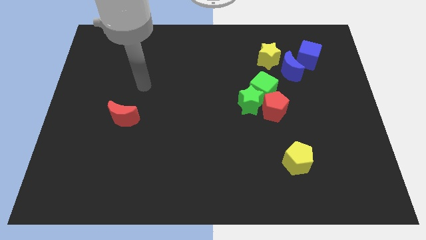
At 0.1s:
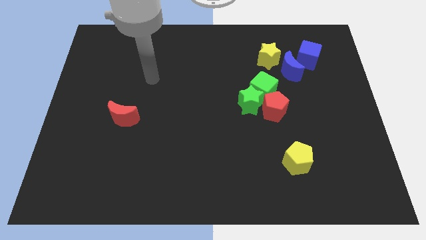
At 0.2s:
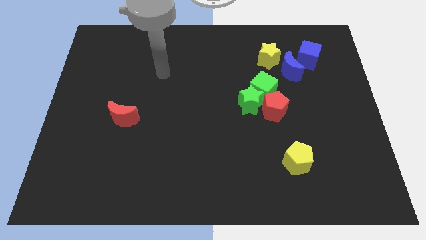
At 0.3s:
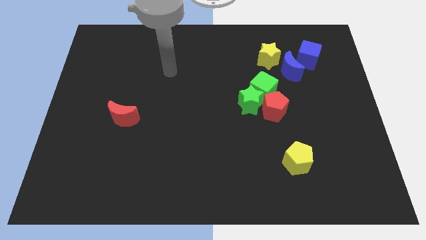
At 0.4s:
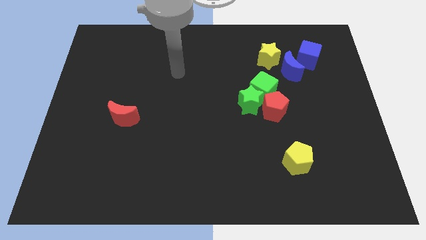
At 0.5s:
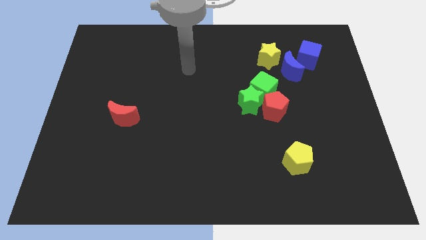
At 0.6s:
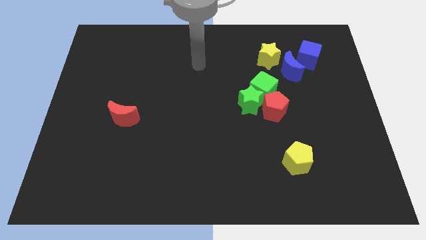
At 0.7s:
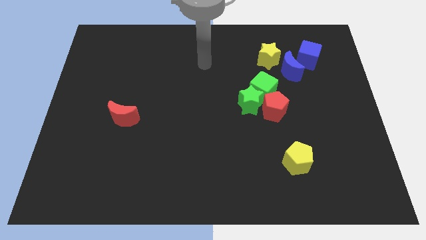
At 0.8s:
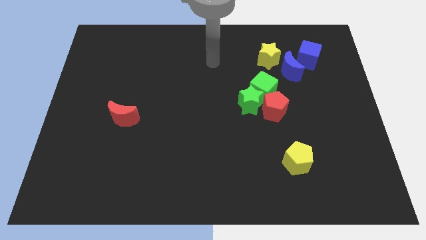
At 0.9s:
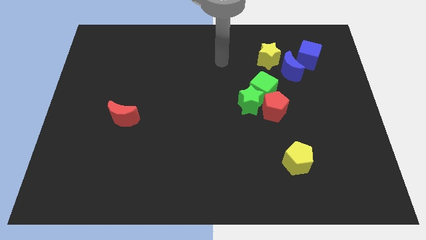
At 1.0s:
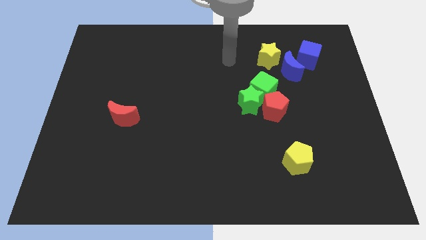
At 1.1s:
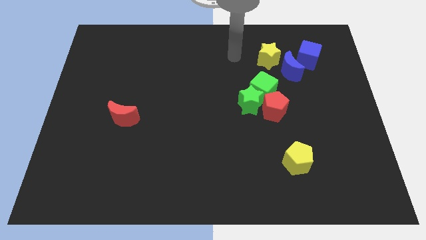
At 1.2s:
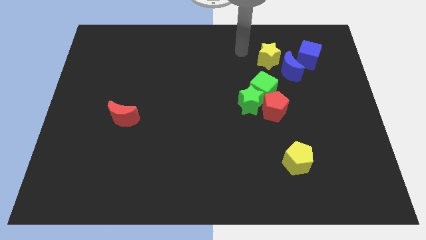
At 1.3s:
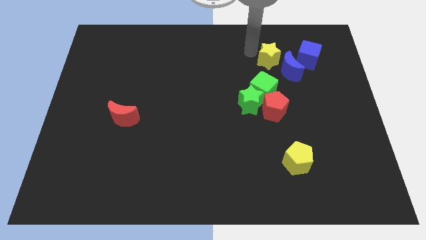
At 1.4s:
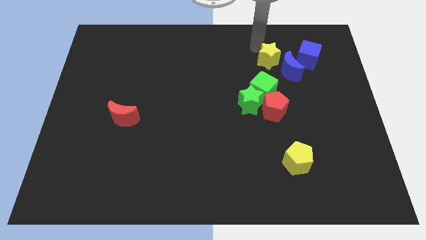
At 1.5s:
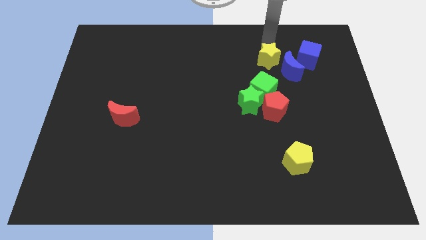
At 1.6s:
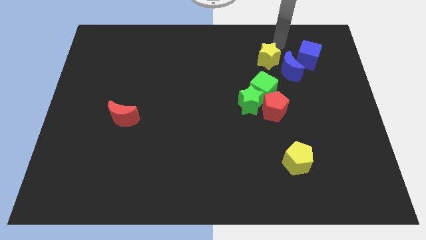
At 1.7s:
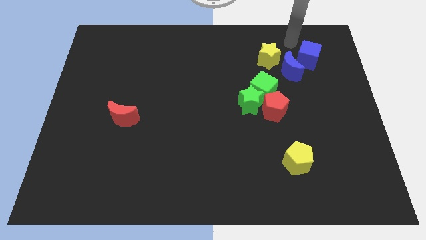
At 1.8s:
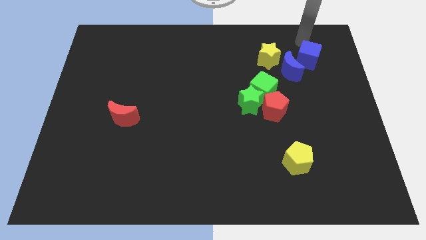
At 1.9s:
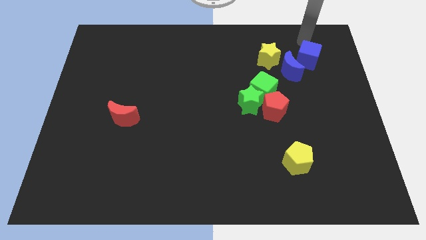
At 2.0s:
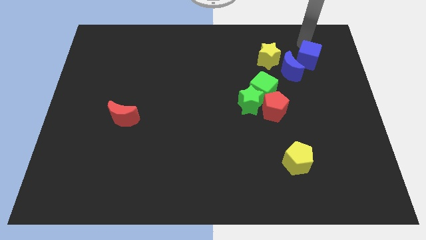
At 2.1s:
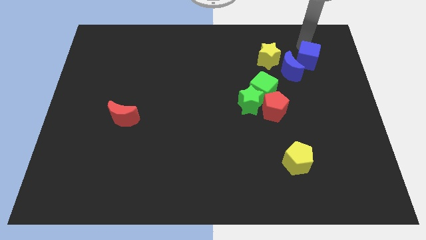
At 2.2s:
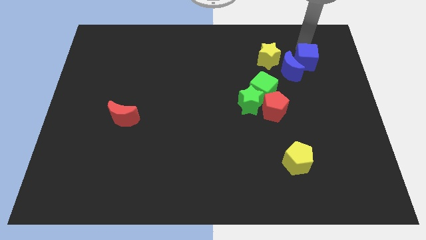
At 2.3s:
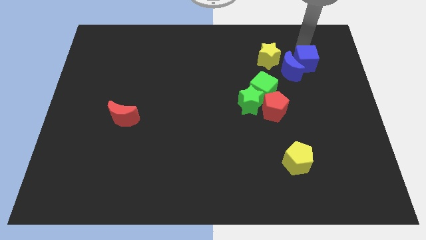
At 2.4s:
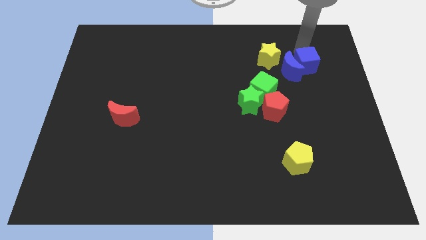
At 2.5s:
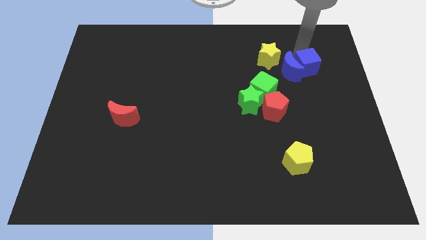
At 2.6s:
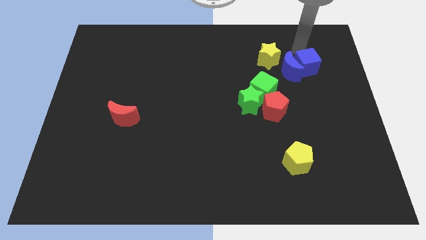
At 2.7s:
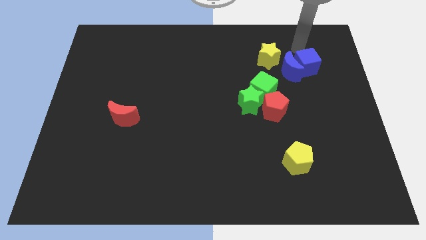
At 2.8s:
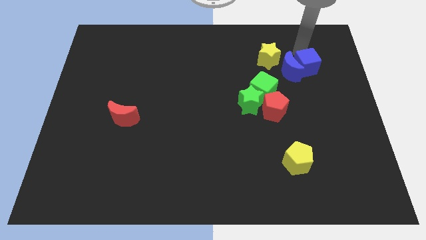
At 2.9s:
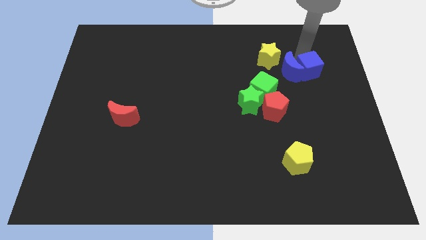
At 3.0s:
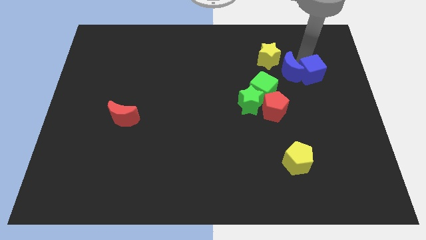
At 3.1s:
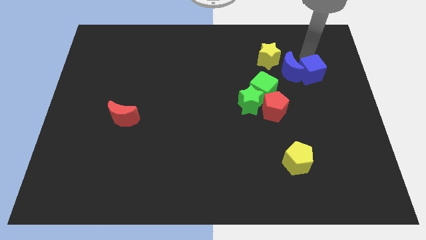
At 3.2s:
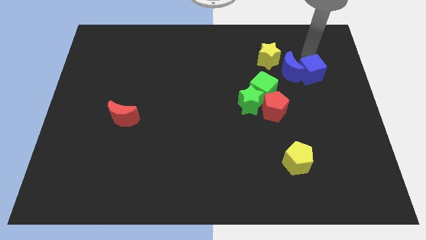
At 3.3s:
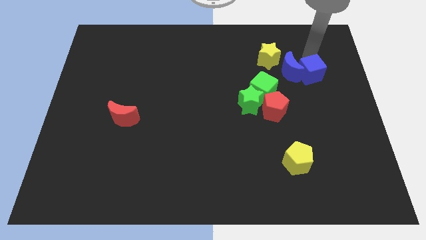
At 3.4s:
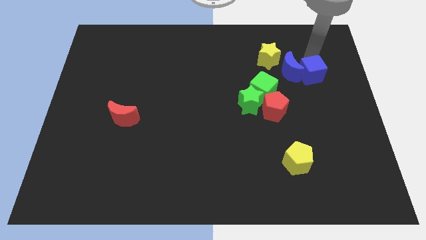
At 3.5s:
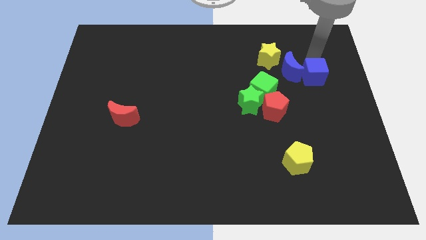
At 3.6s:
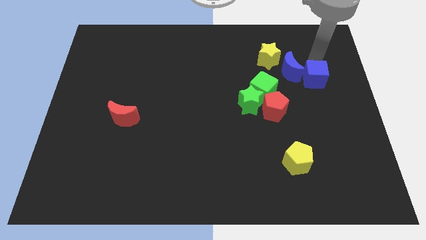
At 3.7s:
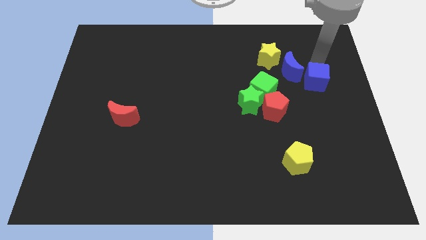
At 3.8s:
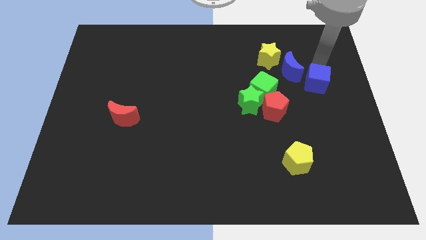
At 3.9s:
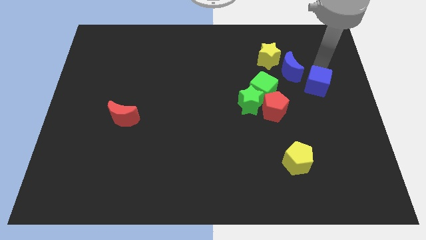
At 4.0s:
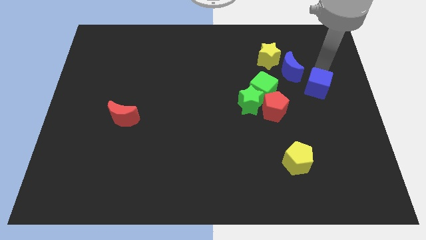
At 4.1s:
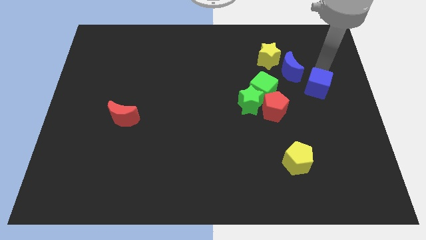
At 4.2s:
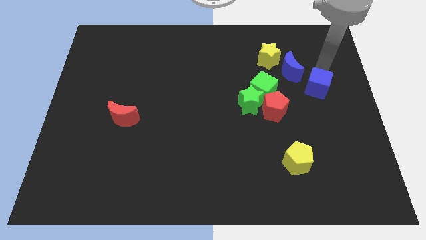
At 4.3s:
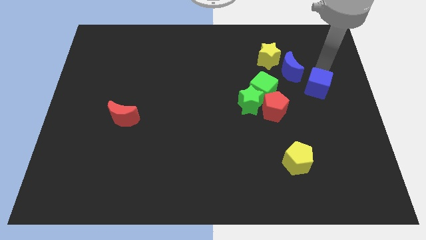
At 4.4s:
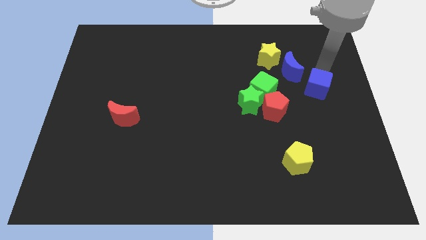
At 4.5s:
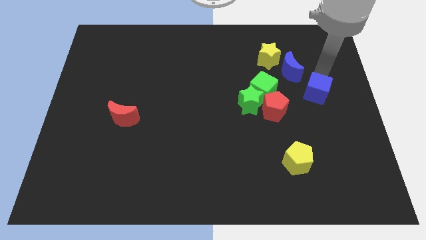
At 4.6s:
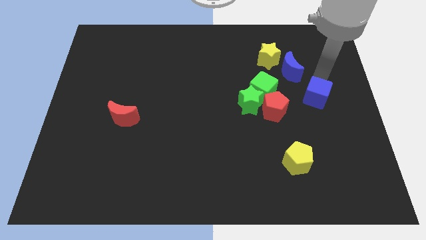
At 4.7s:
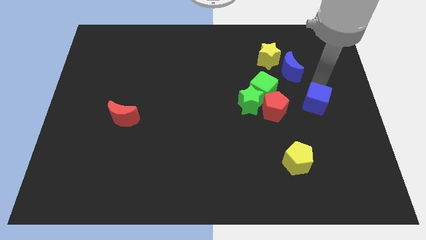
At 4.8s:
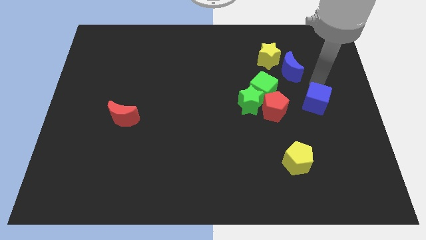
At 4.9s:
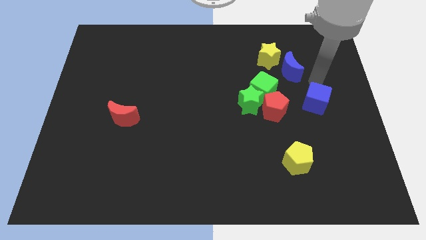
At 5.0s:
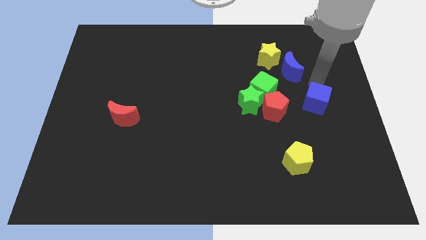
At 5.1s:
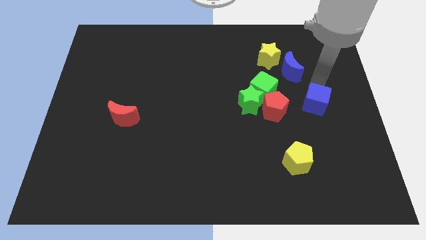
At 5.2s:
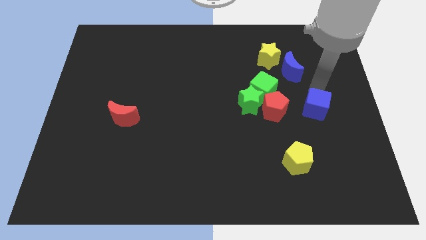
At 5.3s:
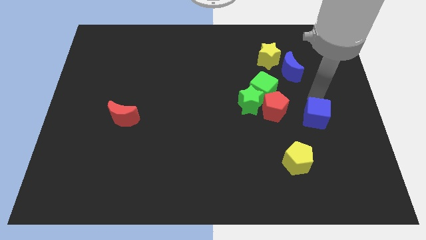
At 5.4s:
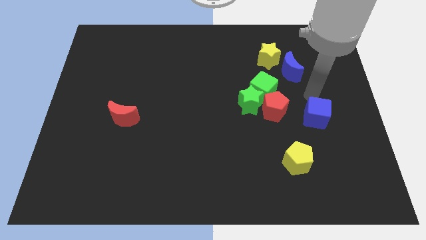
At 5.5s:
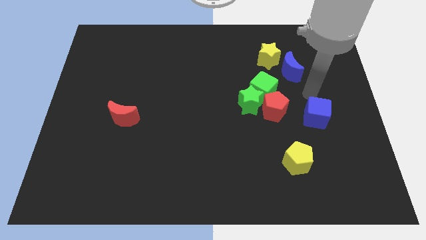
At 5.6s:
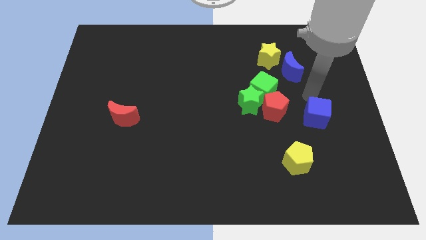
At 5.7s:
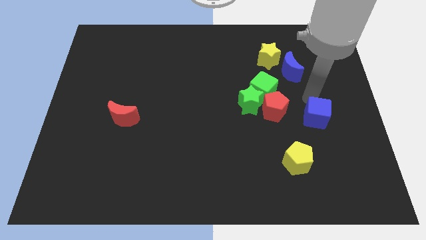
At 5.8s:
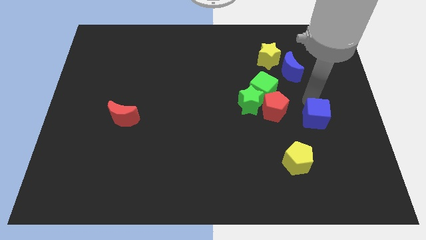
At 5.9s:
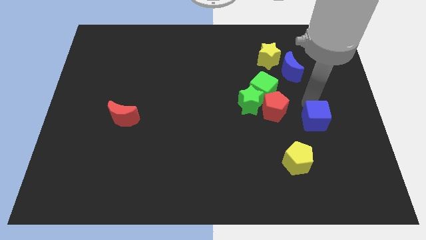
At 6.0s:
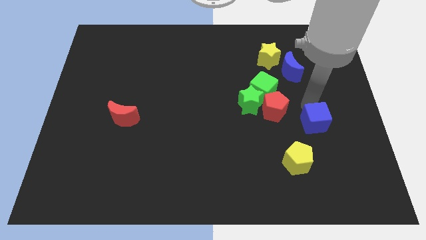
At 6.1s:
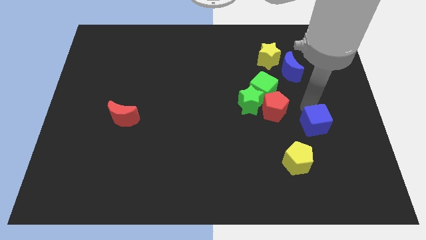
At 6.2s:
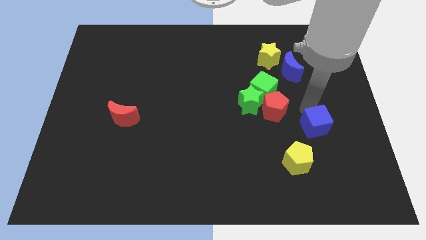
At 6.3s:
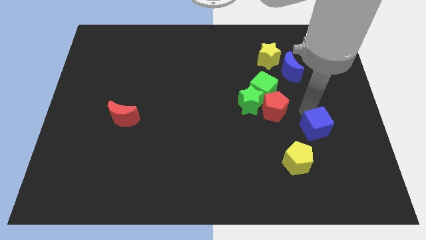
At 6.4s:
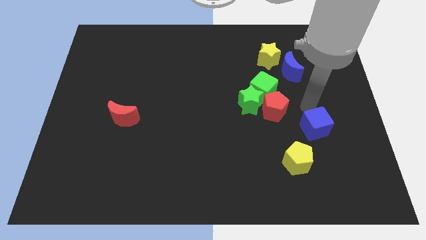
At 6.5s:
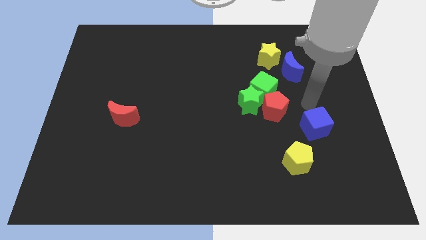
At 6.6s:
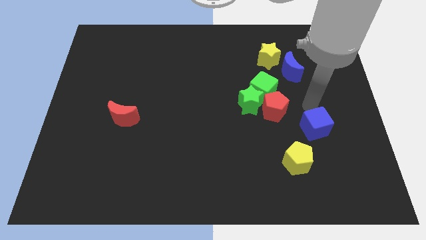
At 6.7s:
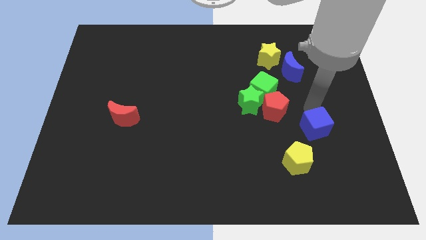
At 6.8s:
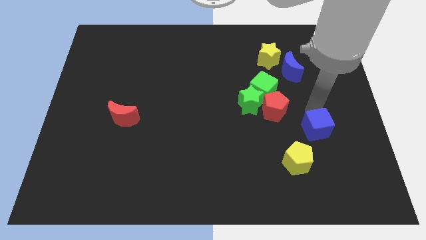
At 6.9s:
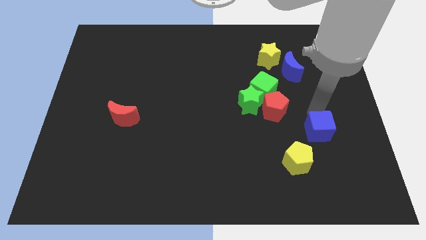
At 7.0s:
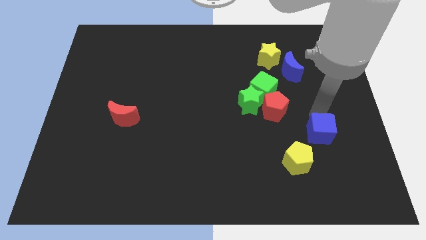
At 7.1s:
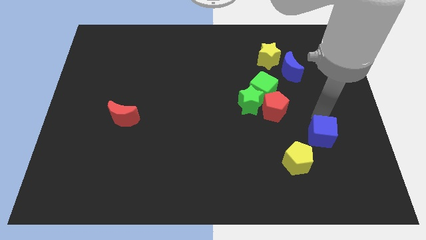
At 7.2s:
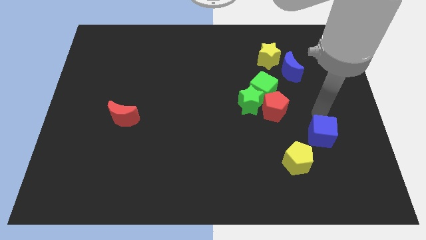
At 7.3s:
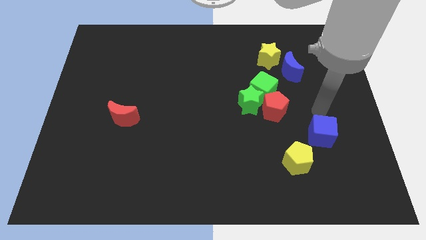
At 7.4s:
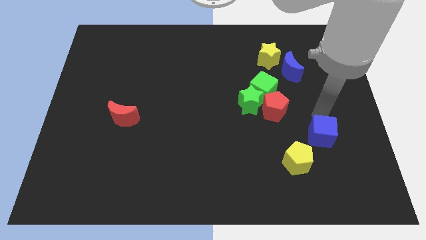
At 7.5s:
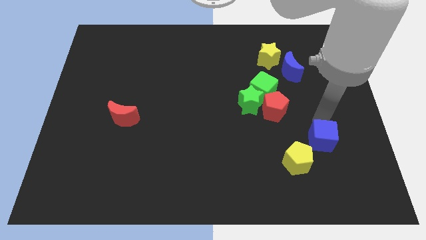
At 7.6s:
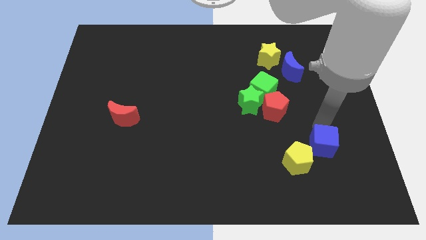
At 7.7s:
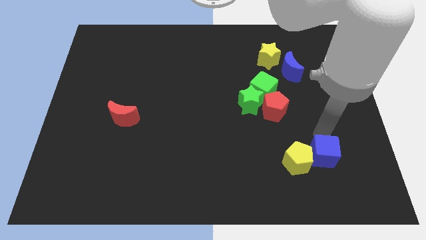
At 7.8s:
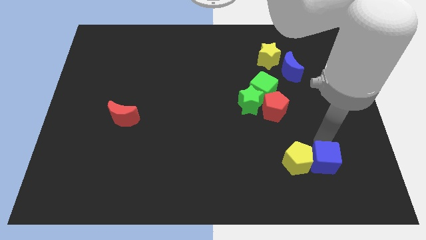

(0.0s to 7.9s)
move the blue cube to the bottom right of the yellow pentagon
